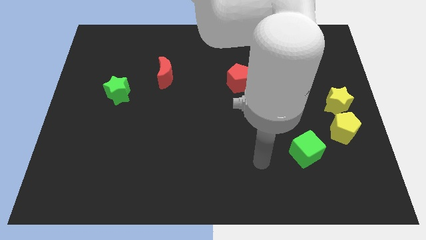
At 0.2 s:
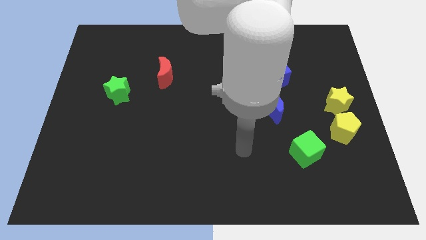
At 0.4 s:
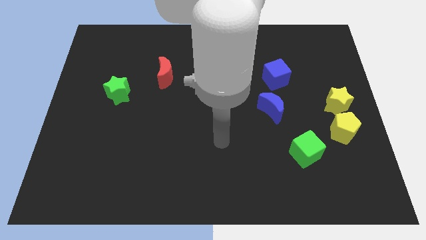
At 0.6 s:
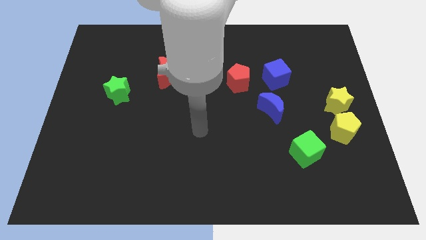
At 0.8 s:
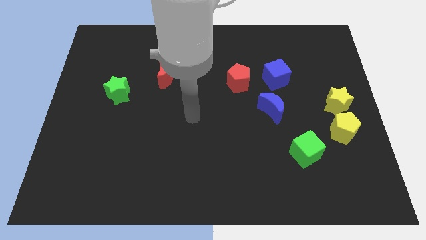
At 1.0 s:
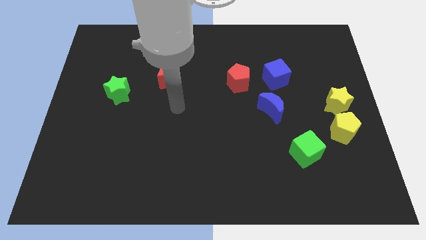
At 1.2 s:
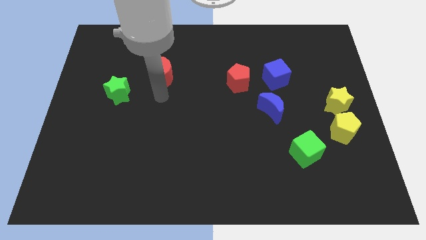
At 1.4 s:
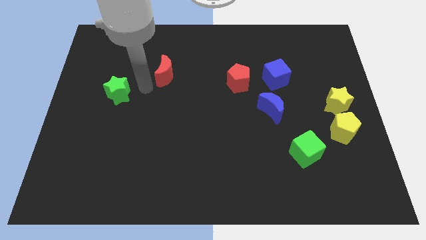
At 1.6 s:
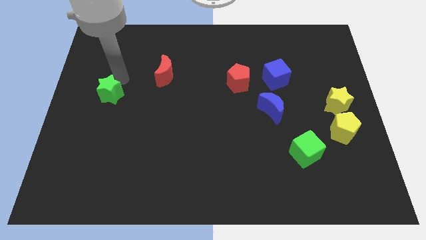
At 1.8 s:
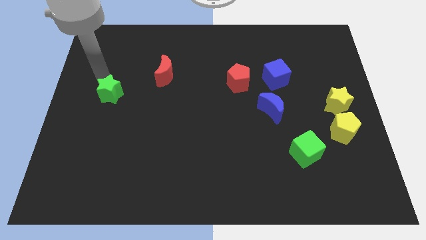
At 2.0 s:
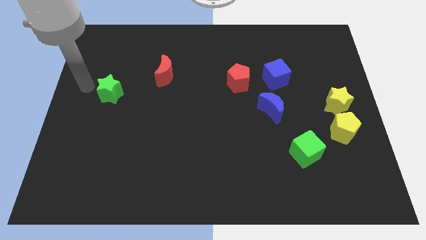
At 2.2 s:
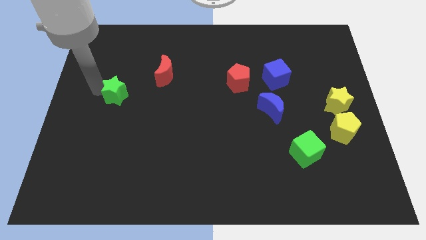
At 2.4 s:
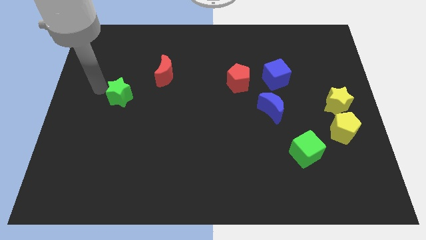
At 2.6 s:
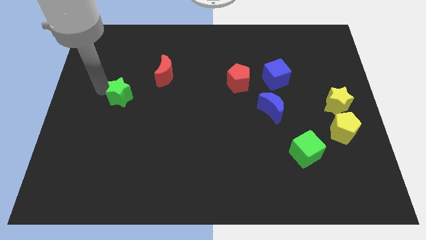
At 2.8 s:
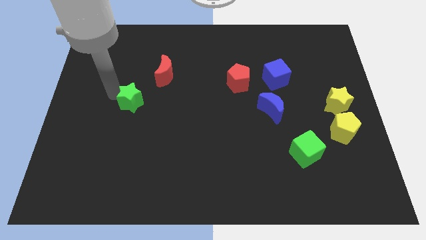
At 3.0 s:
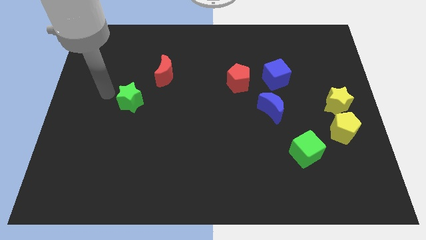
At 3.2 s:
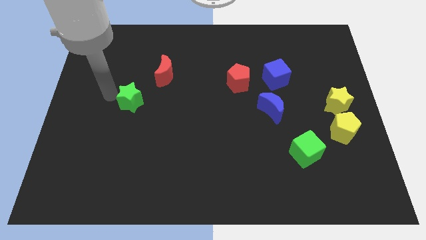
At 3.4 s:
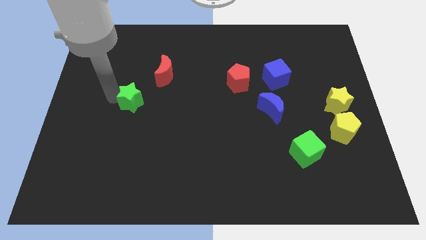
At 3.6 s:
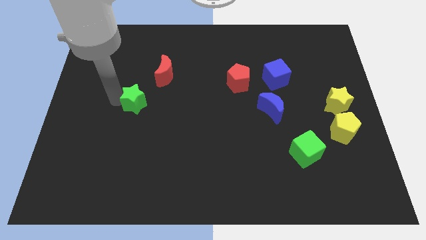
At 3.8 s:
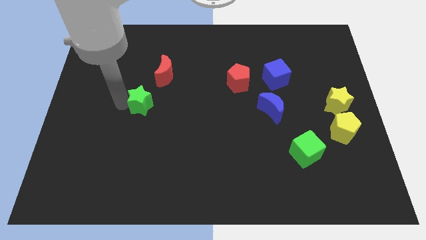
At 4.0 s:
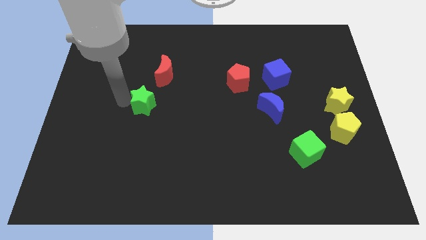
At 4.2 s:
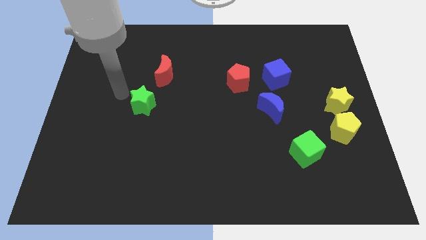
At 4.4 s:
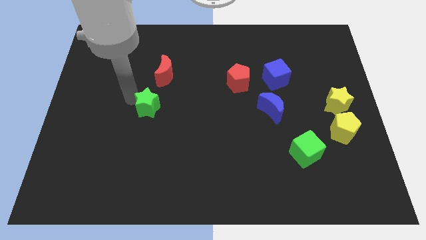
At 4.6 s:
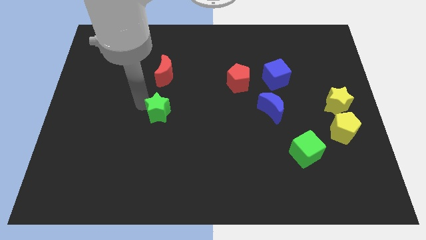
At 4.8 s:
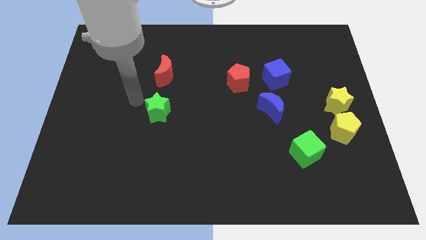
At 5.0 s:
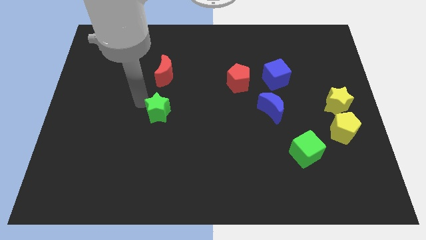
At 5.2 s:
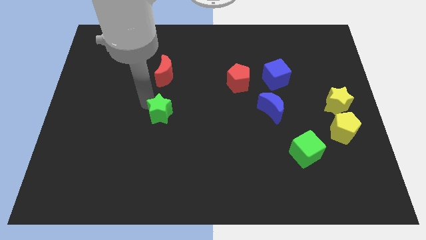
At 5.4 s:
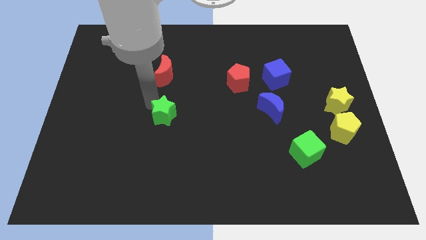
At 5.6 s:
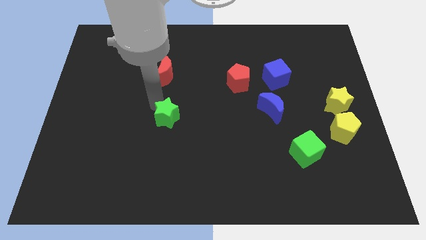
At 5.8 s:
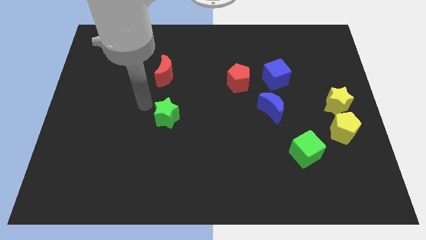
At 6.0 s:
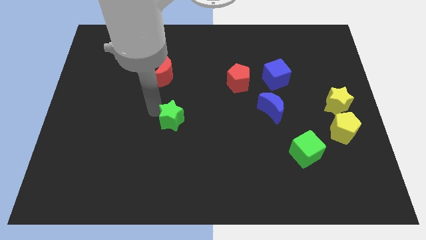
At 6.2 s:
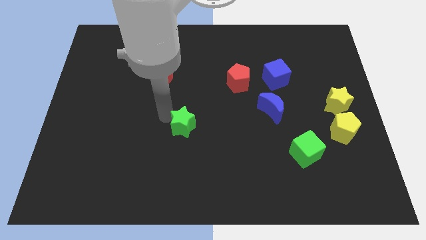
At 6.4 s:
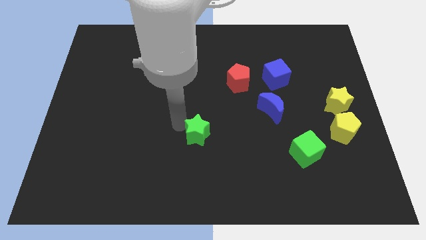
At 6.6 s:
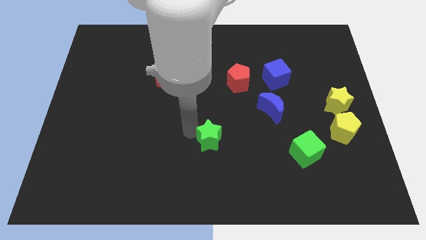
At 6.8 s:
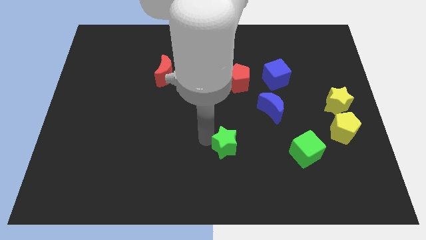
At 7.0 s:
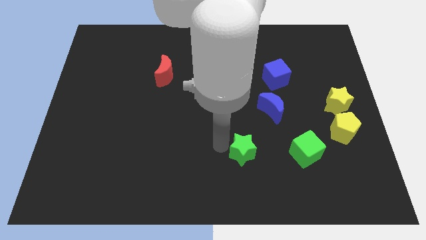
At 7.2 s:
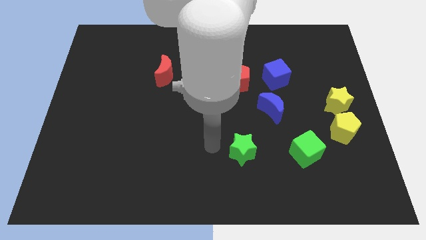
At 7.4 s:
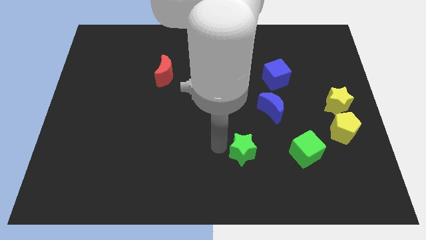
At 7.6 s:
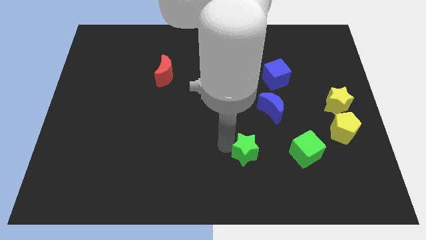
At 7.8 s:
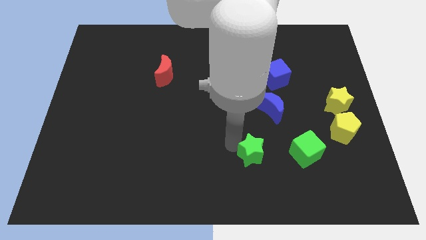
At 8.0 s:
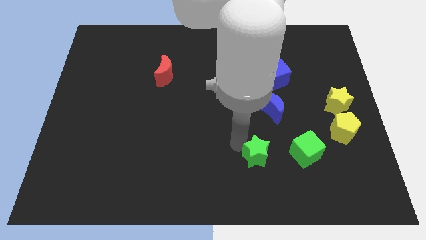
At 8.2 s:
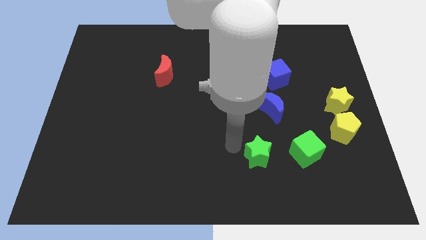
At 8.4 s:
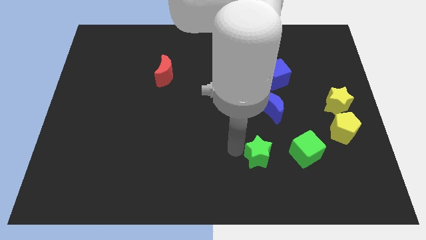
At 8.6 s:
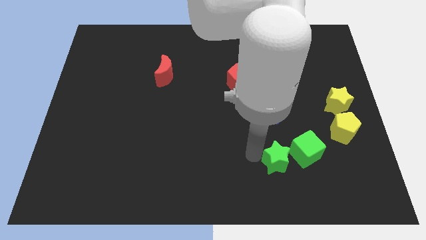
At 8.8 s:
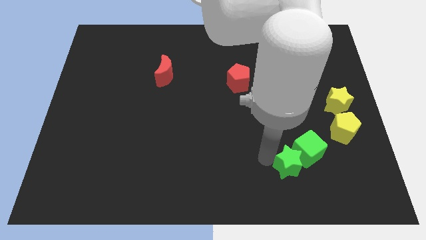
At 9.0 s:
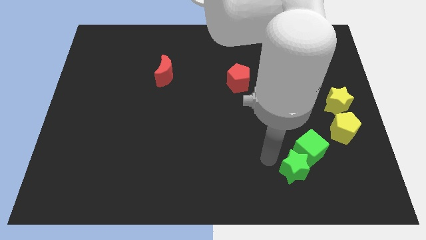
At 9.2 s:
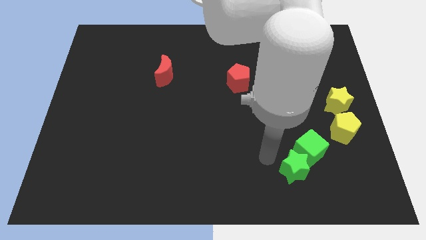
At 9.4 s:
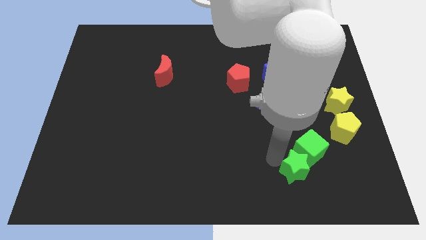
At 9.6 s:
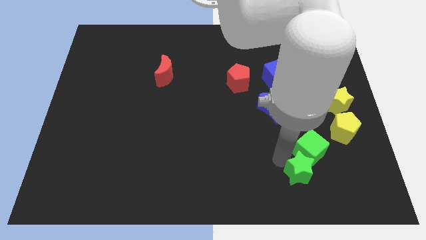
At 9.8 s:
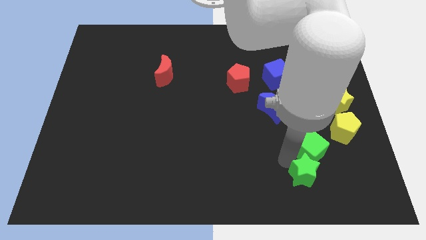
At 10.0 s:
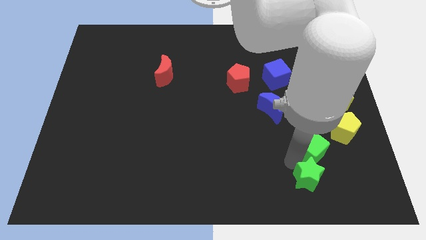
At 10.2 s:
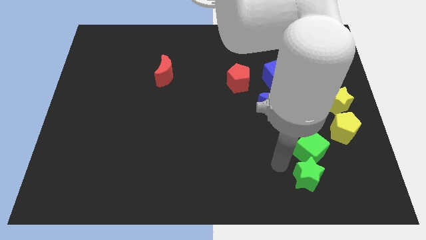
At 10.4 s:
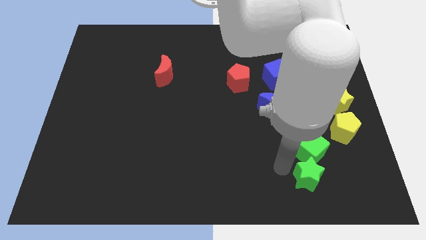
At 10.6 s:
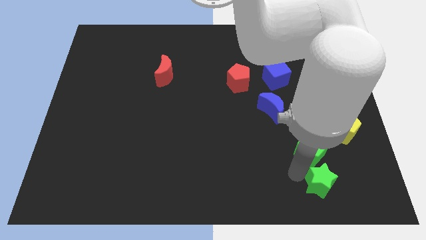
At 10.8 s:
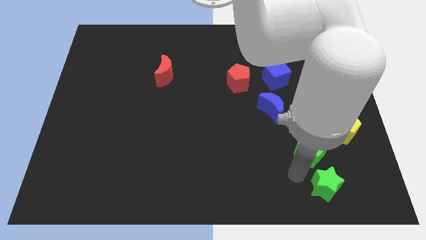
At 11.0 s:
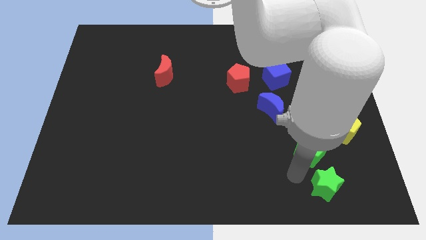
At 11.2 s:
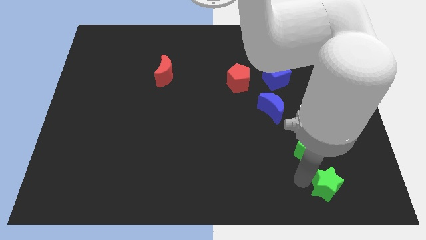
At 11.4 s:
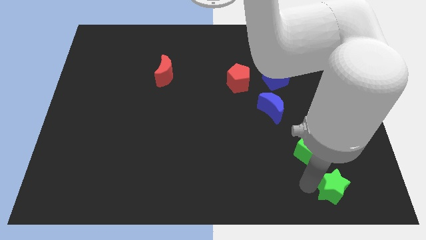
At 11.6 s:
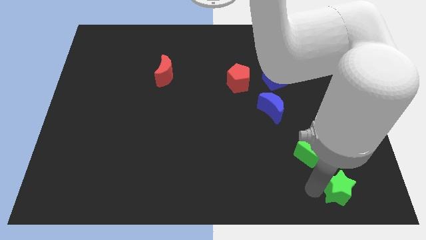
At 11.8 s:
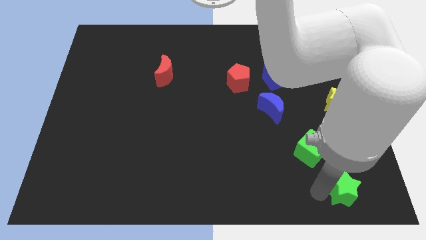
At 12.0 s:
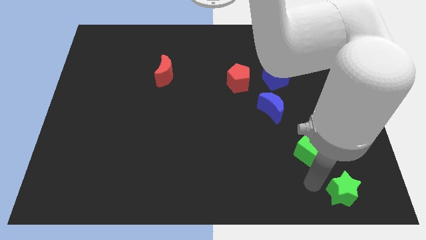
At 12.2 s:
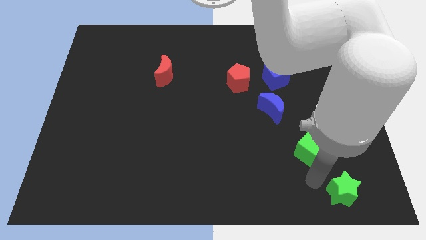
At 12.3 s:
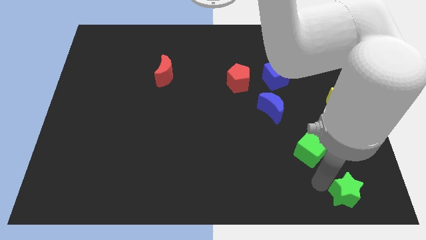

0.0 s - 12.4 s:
push the green star to the bottom right corner
